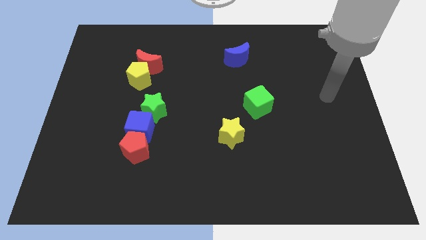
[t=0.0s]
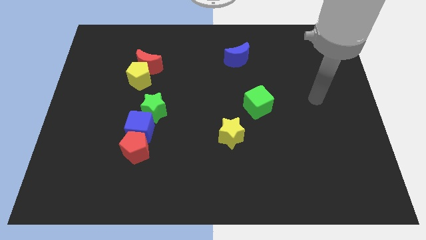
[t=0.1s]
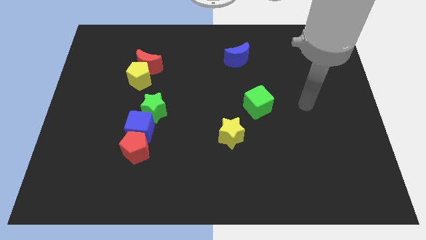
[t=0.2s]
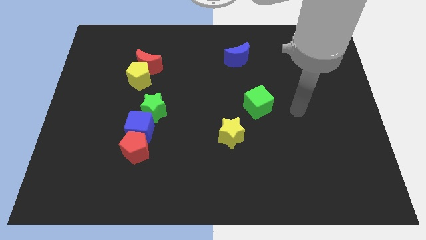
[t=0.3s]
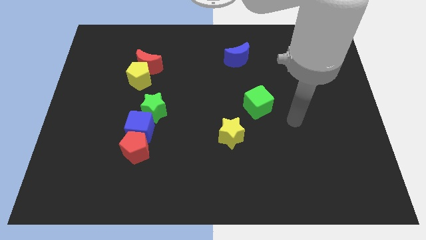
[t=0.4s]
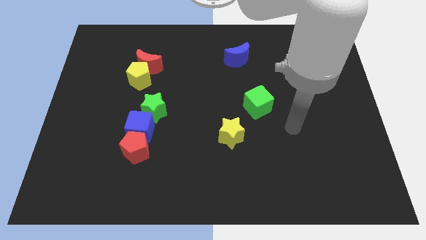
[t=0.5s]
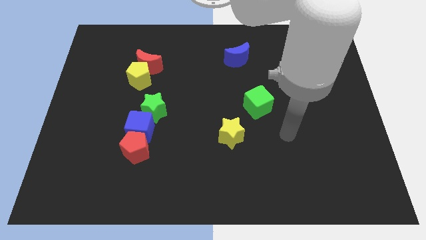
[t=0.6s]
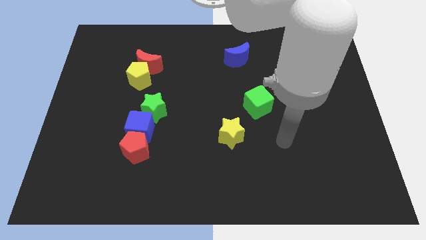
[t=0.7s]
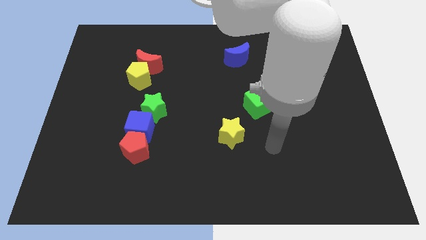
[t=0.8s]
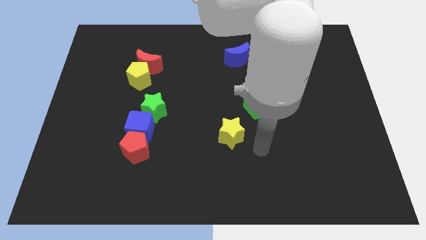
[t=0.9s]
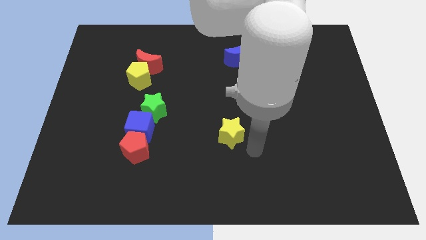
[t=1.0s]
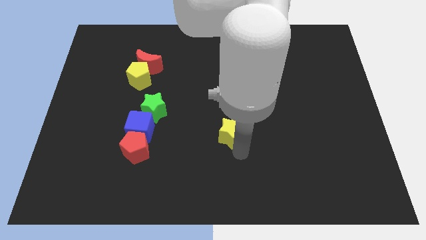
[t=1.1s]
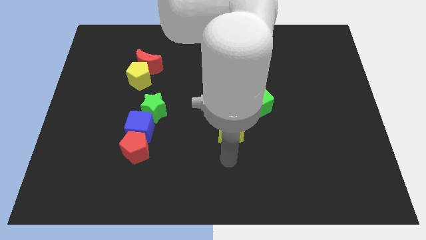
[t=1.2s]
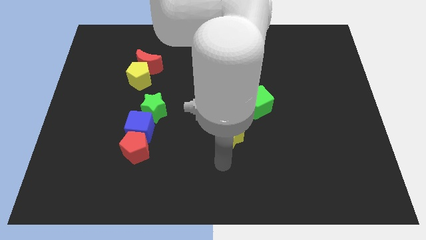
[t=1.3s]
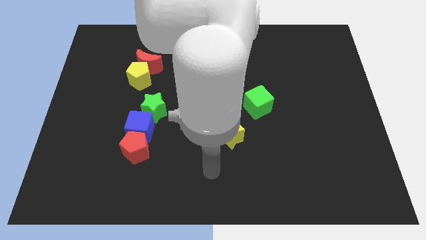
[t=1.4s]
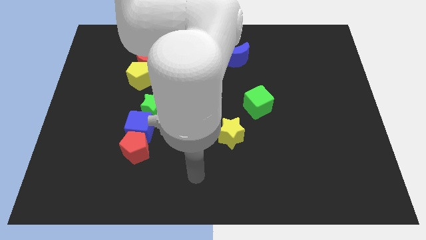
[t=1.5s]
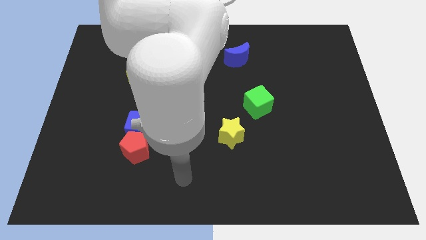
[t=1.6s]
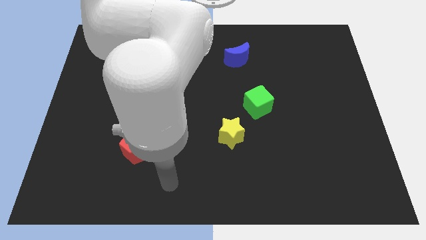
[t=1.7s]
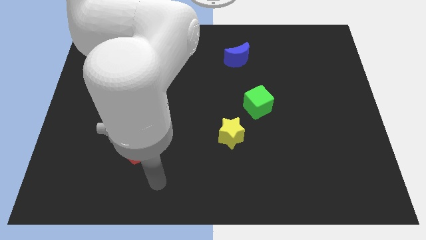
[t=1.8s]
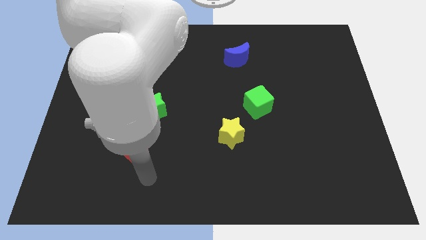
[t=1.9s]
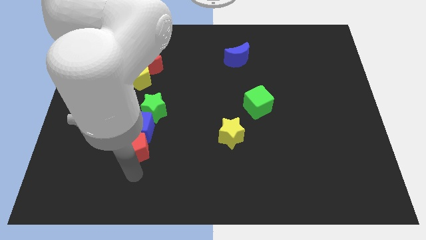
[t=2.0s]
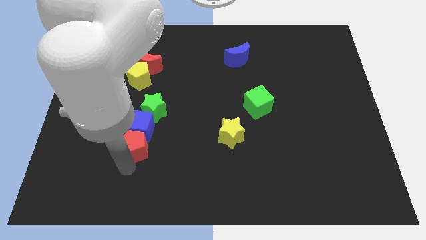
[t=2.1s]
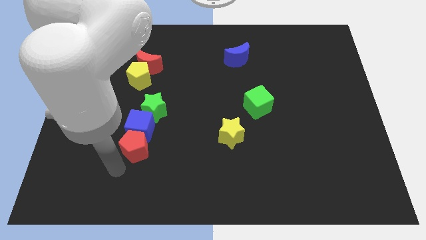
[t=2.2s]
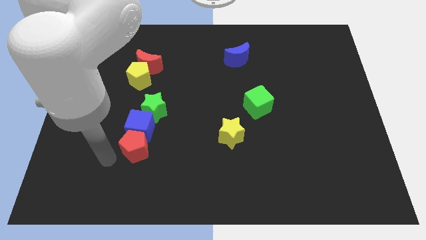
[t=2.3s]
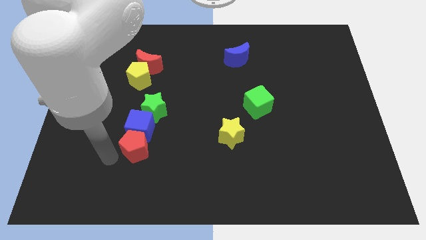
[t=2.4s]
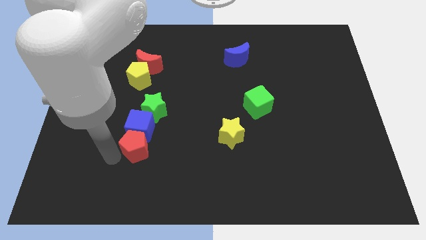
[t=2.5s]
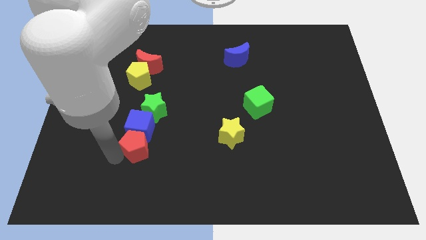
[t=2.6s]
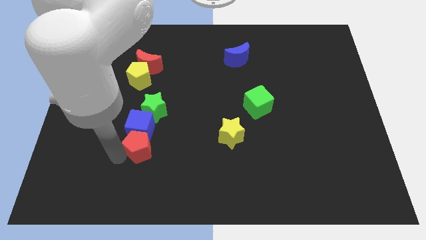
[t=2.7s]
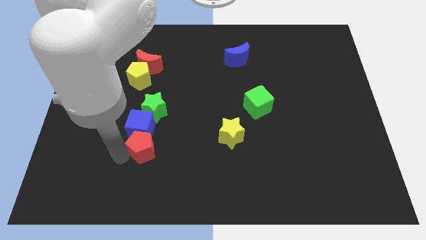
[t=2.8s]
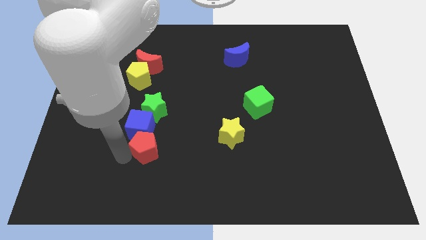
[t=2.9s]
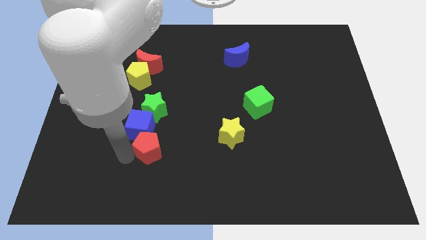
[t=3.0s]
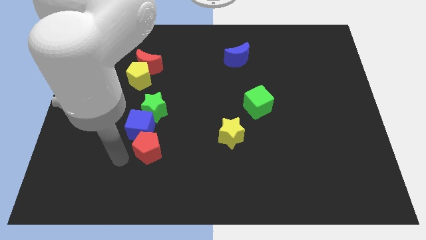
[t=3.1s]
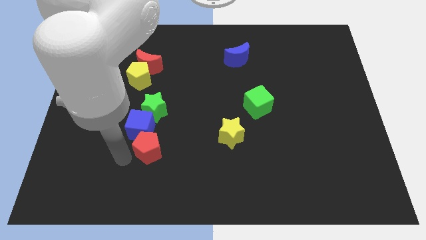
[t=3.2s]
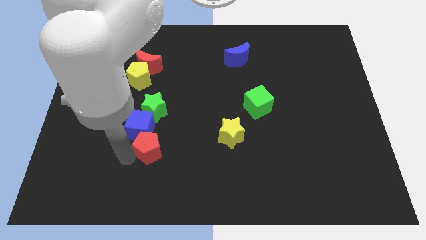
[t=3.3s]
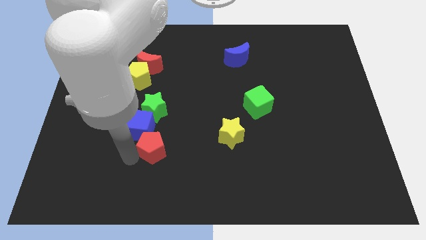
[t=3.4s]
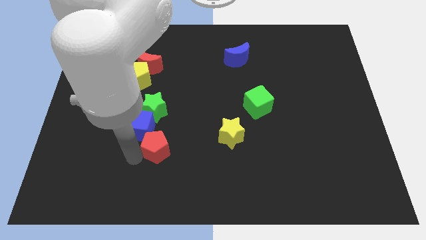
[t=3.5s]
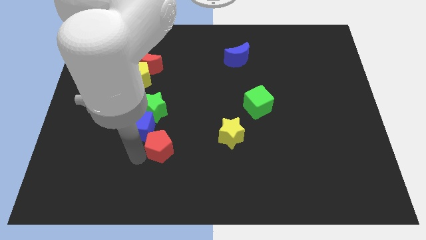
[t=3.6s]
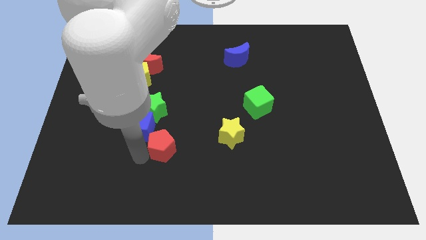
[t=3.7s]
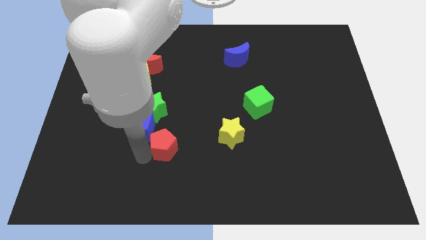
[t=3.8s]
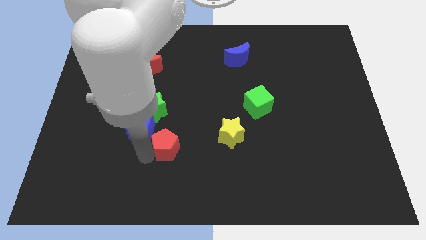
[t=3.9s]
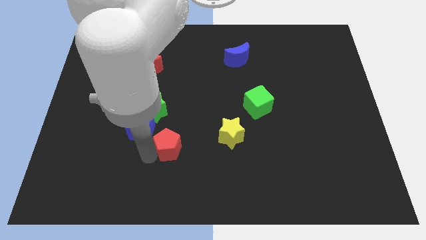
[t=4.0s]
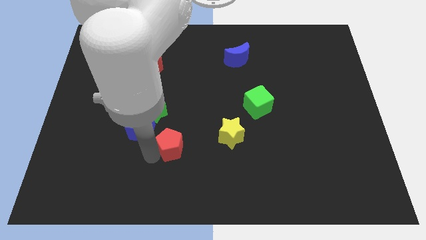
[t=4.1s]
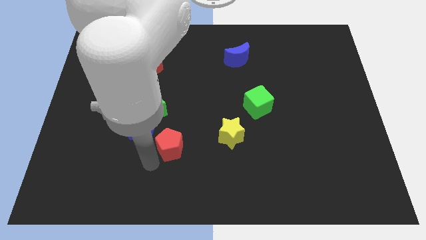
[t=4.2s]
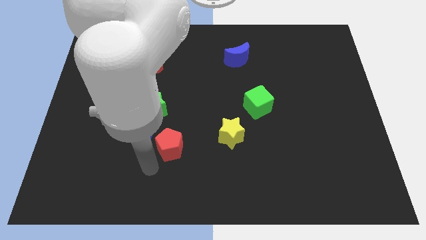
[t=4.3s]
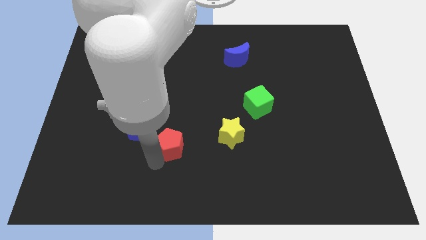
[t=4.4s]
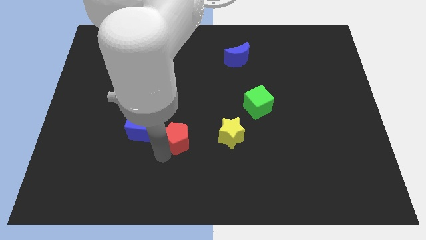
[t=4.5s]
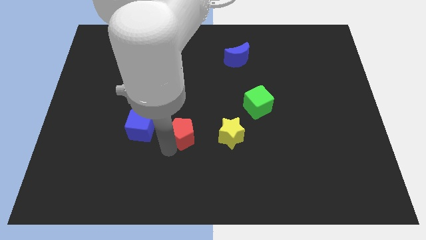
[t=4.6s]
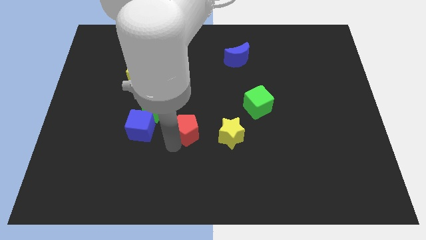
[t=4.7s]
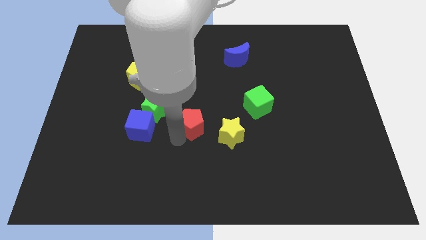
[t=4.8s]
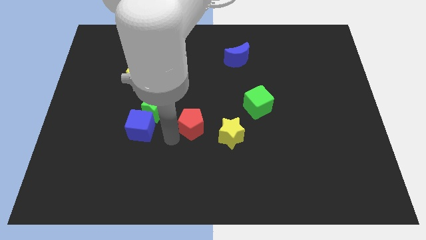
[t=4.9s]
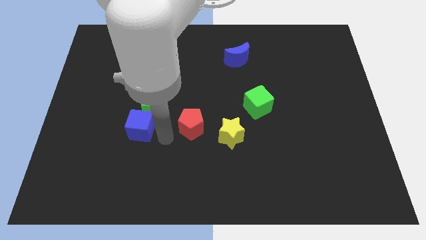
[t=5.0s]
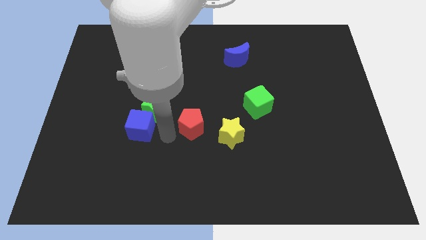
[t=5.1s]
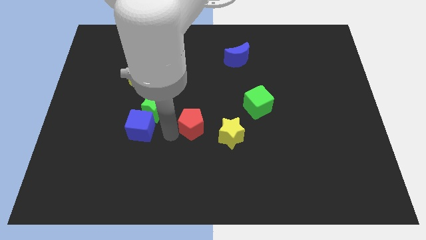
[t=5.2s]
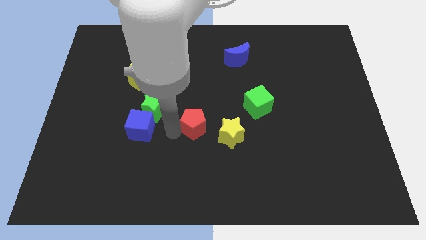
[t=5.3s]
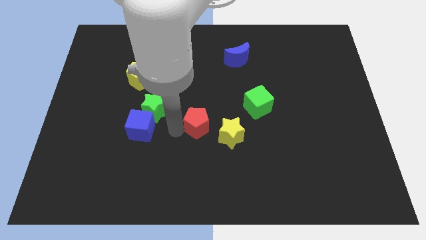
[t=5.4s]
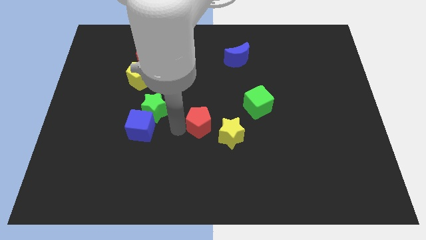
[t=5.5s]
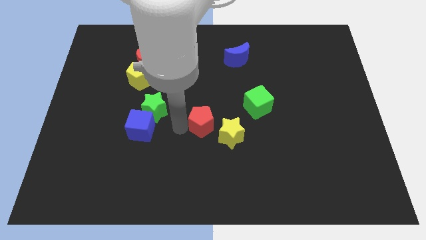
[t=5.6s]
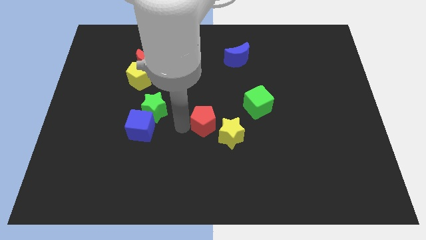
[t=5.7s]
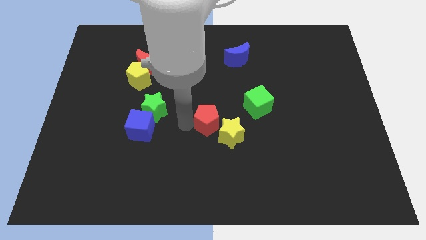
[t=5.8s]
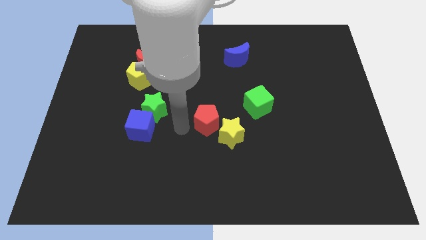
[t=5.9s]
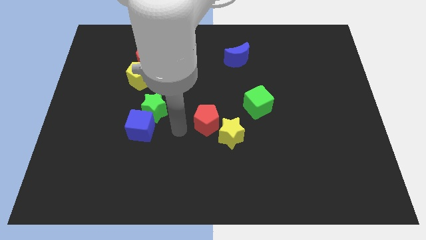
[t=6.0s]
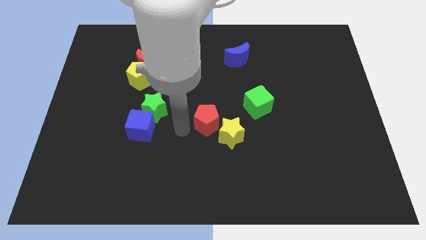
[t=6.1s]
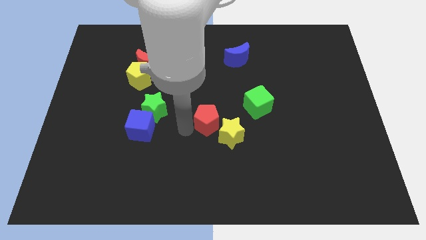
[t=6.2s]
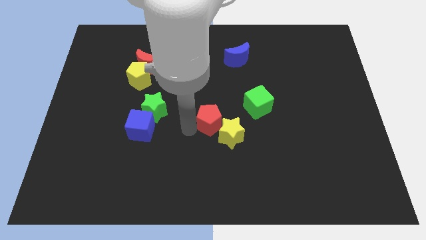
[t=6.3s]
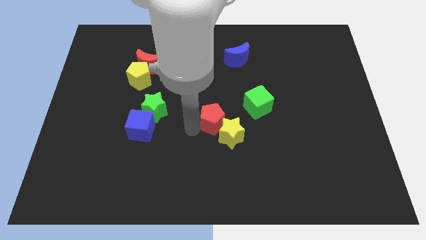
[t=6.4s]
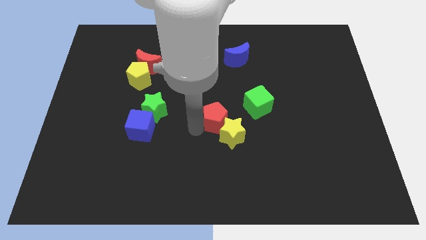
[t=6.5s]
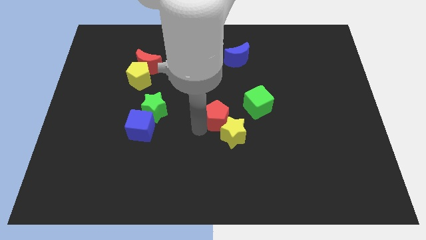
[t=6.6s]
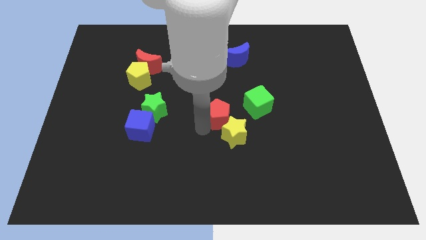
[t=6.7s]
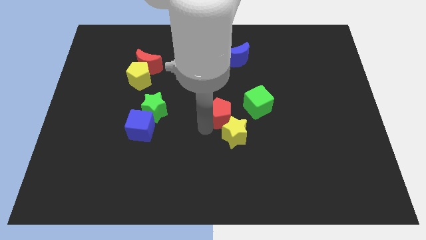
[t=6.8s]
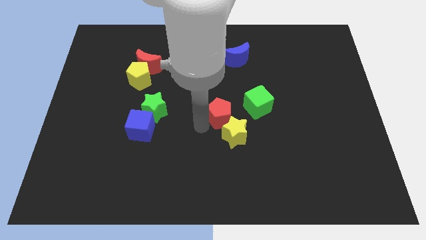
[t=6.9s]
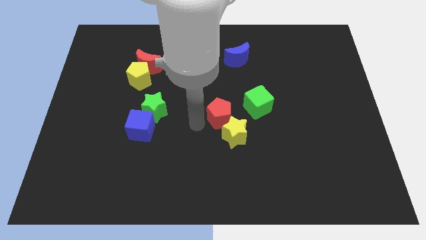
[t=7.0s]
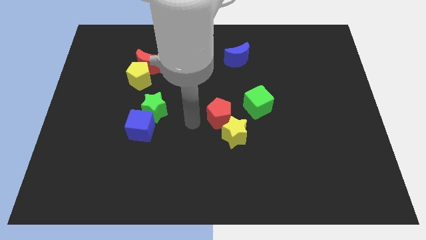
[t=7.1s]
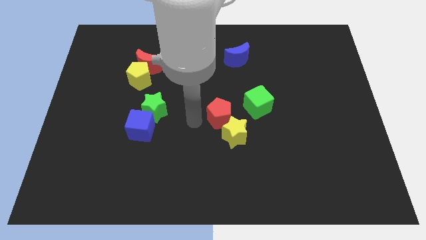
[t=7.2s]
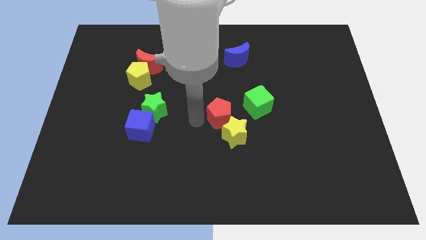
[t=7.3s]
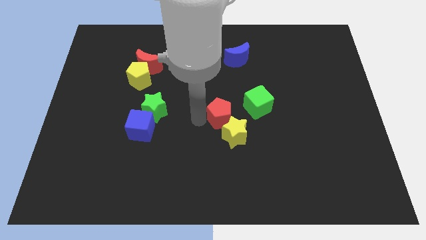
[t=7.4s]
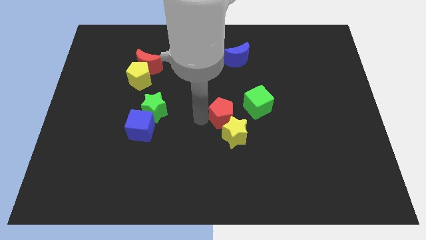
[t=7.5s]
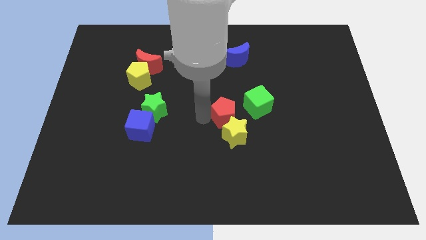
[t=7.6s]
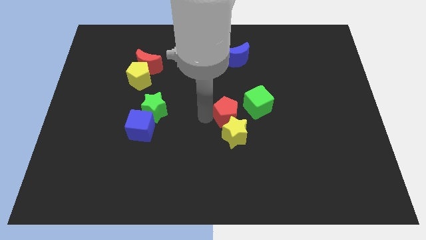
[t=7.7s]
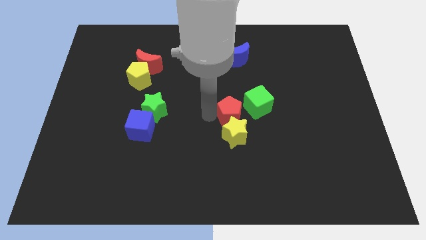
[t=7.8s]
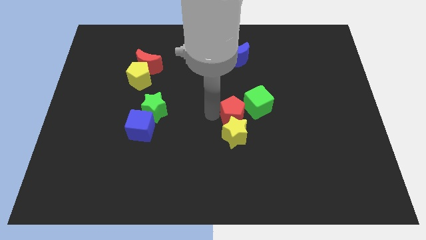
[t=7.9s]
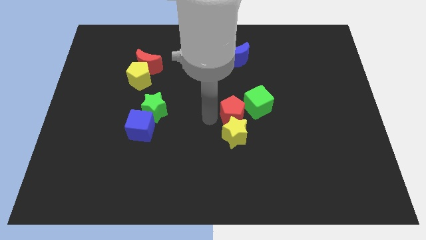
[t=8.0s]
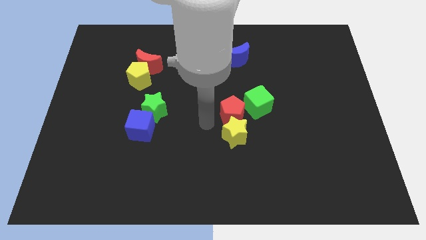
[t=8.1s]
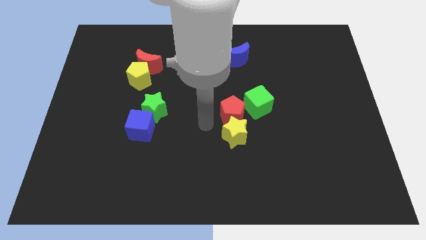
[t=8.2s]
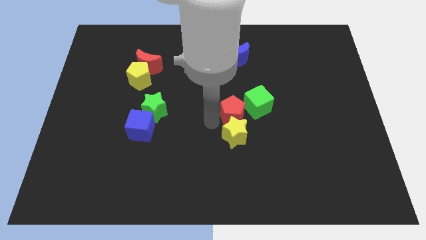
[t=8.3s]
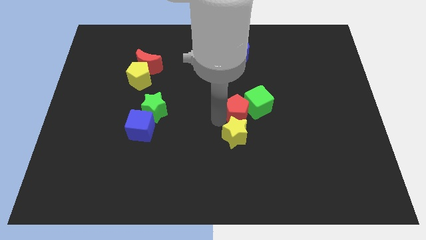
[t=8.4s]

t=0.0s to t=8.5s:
move the red pentagon close to the green cube
